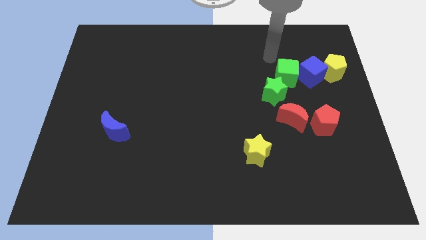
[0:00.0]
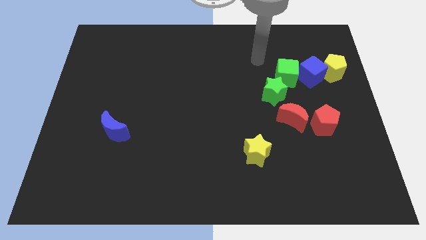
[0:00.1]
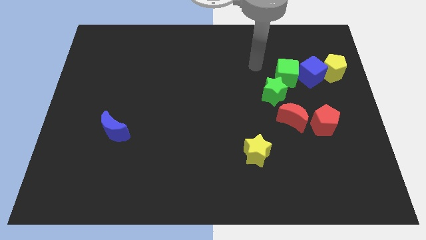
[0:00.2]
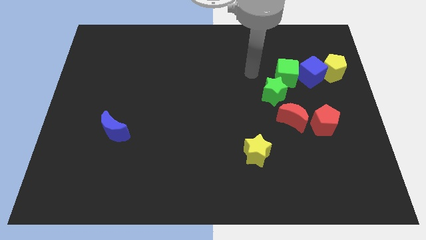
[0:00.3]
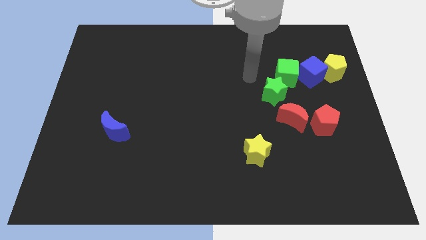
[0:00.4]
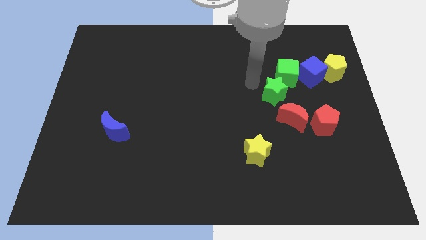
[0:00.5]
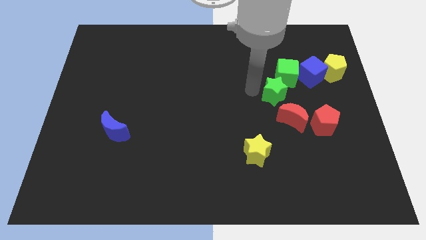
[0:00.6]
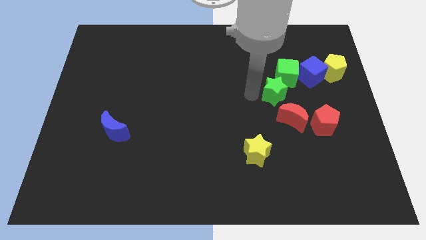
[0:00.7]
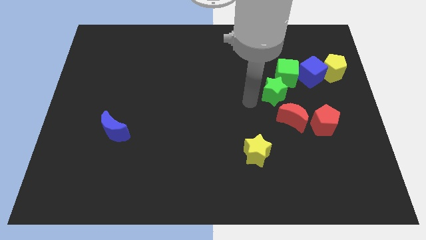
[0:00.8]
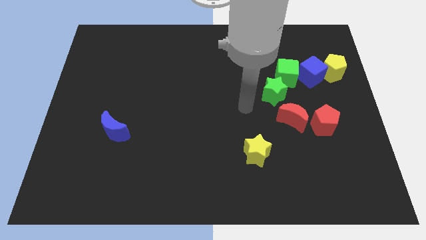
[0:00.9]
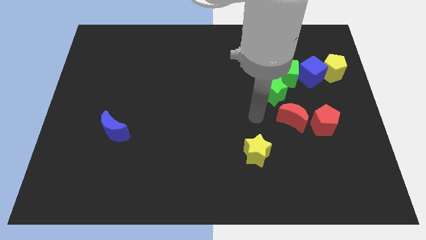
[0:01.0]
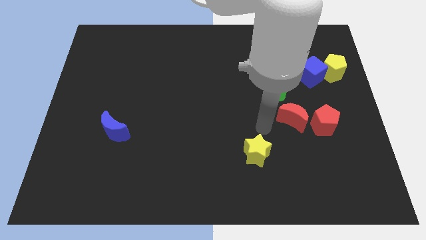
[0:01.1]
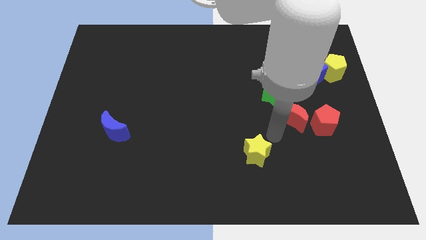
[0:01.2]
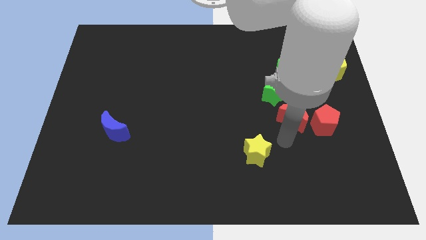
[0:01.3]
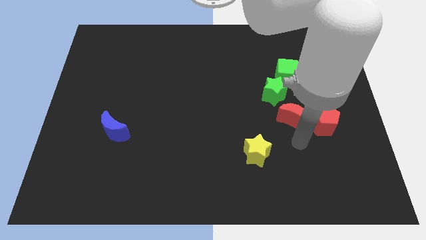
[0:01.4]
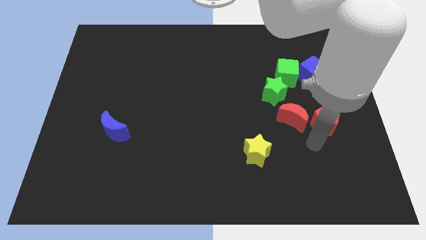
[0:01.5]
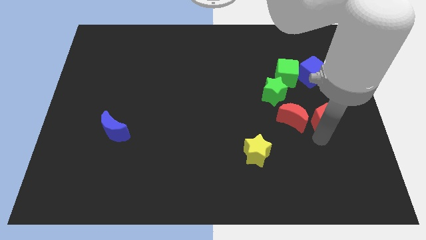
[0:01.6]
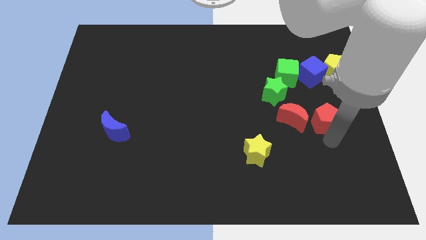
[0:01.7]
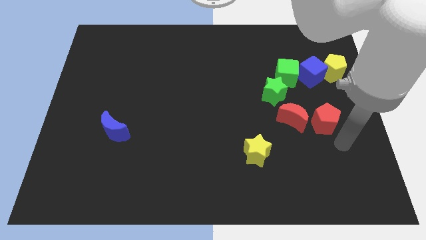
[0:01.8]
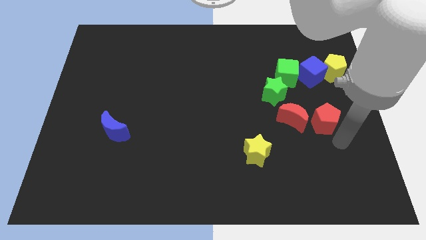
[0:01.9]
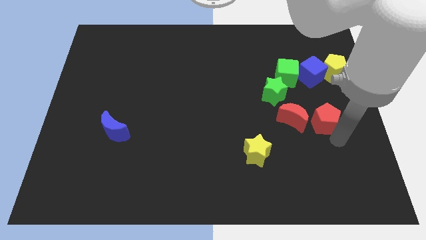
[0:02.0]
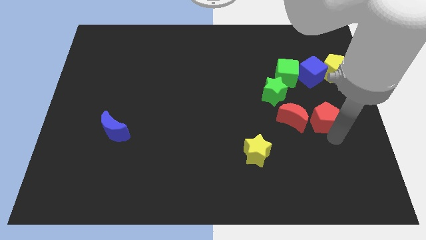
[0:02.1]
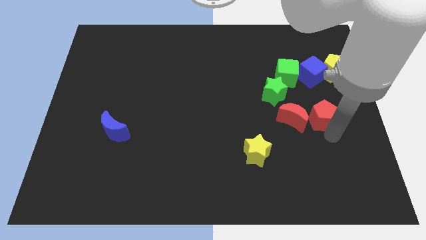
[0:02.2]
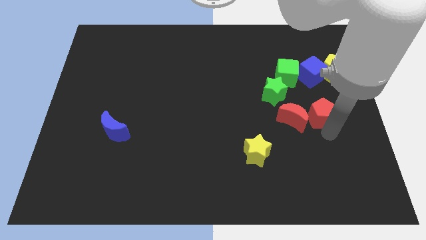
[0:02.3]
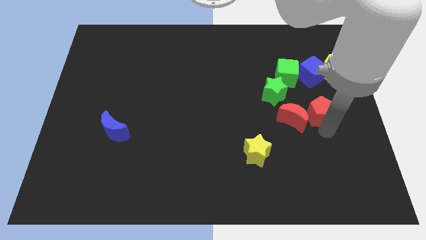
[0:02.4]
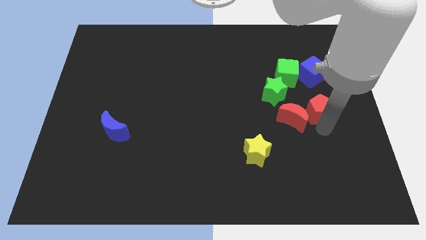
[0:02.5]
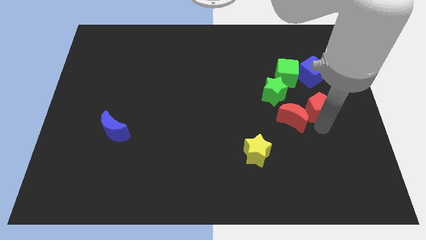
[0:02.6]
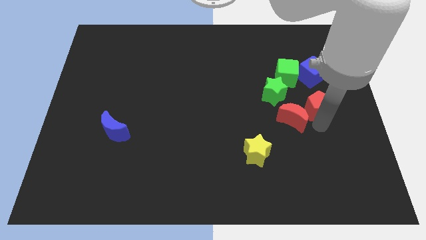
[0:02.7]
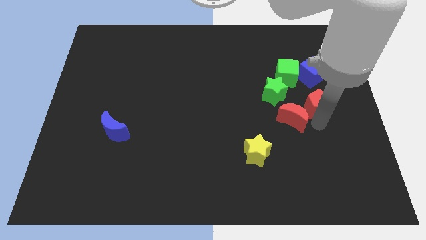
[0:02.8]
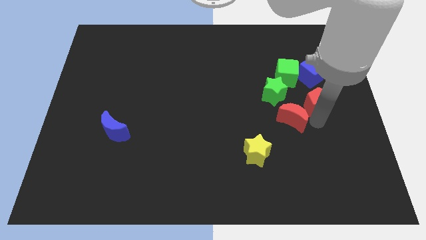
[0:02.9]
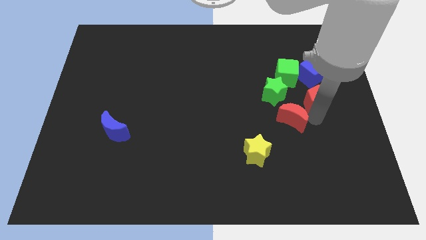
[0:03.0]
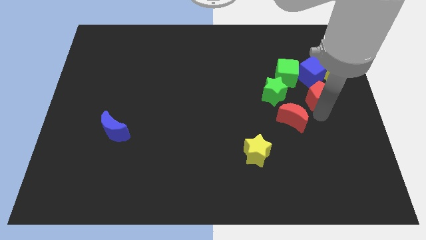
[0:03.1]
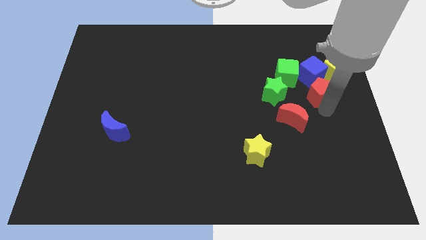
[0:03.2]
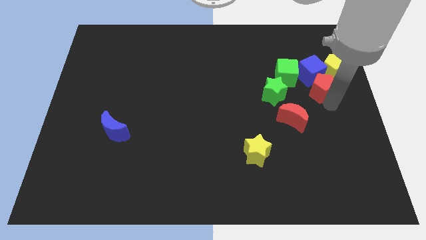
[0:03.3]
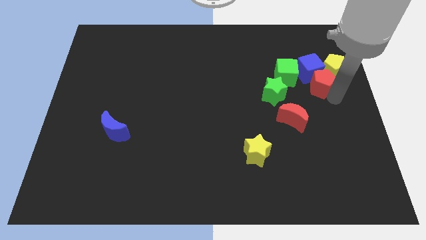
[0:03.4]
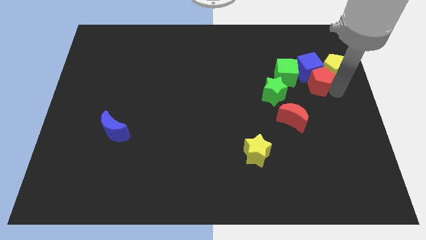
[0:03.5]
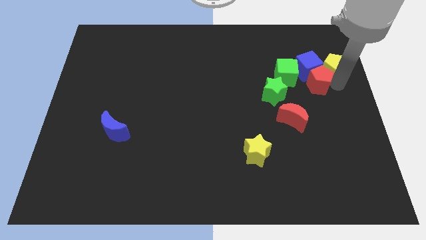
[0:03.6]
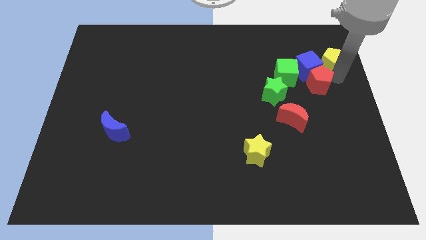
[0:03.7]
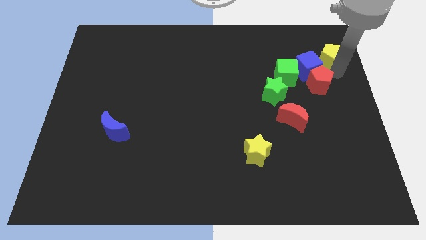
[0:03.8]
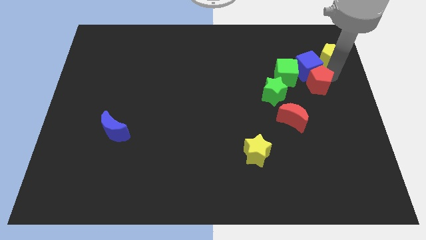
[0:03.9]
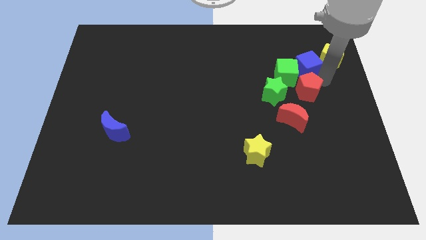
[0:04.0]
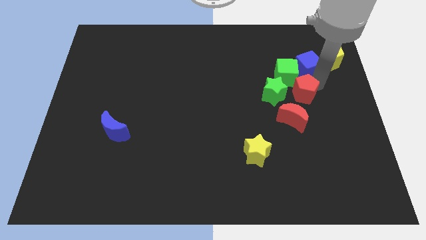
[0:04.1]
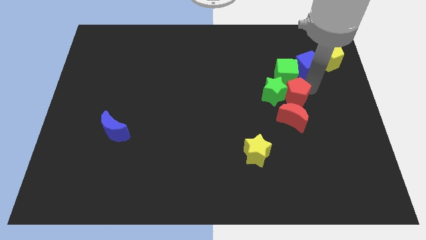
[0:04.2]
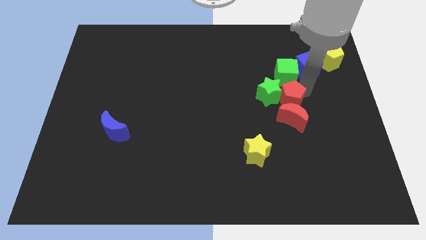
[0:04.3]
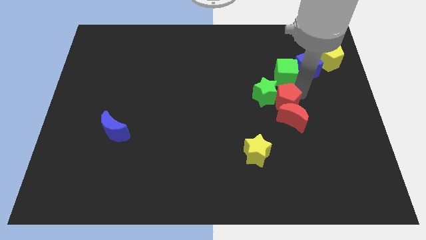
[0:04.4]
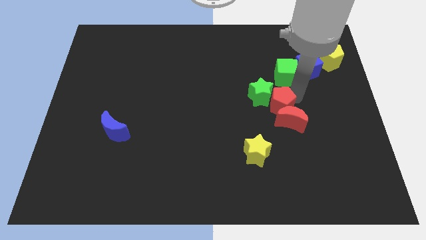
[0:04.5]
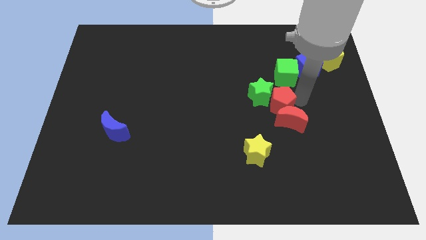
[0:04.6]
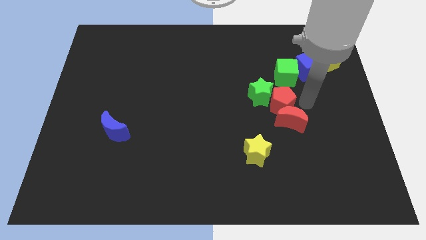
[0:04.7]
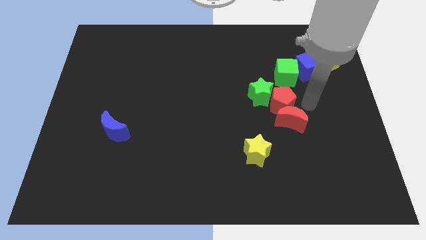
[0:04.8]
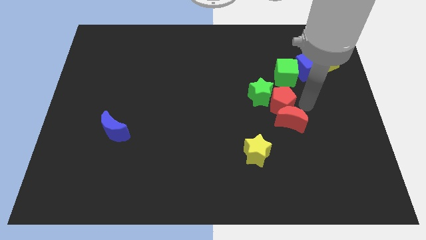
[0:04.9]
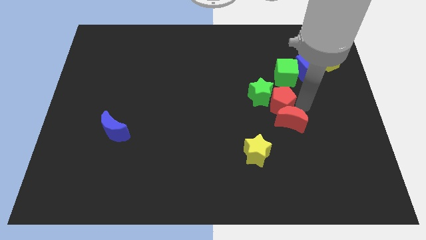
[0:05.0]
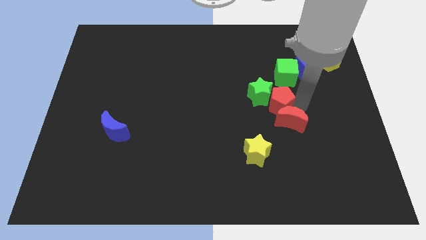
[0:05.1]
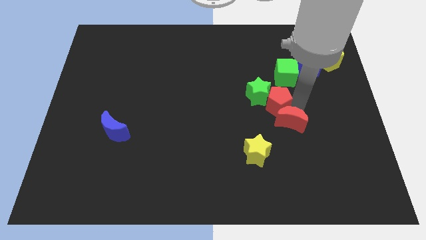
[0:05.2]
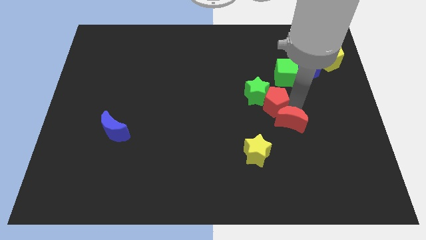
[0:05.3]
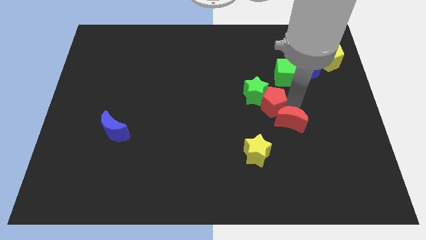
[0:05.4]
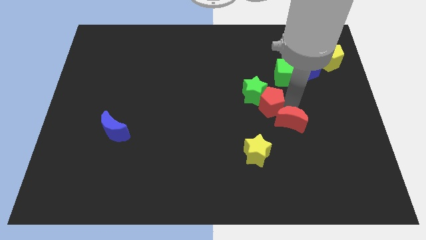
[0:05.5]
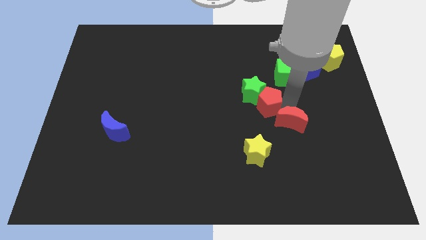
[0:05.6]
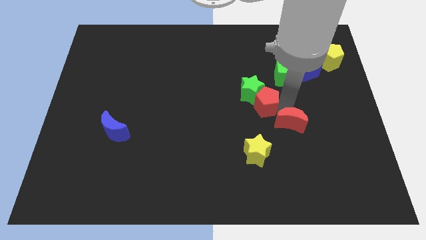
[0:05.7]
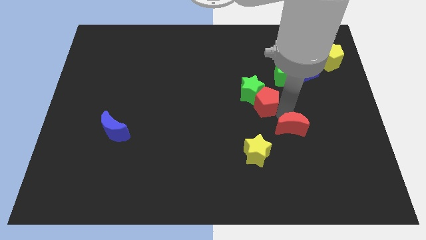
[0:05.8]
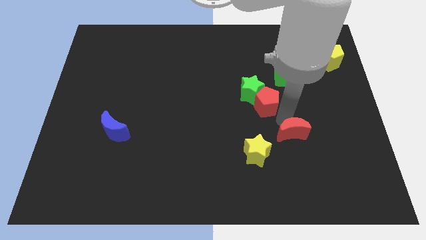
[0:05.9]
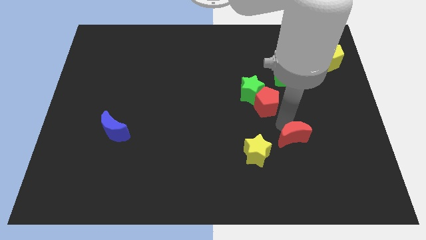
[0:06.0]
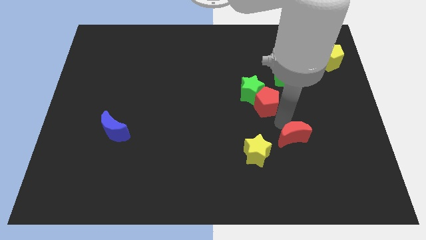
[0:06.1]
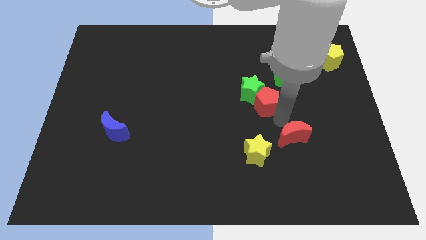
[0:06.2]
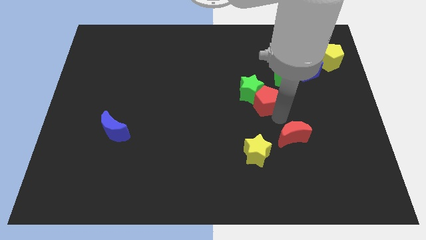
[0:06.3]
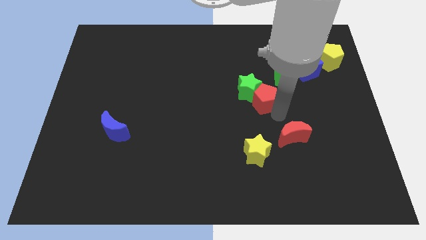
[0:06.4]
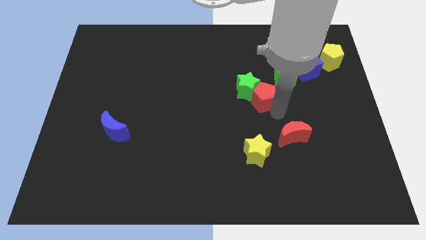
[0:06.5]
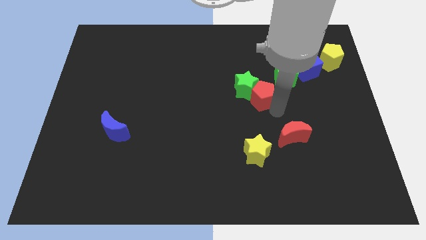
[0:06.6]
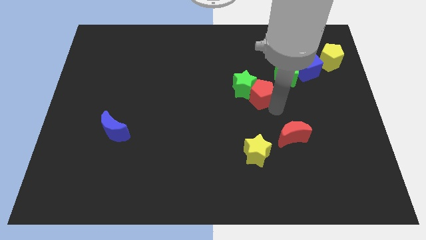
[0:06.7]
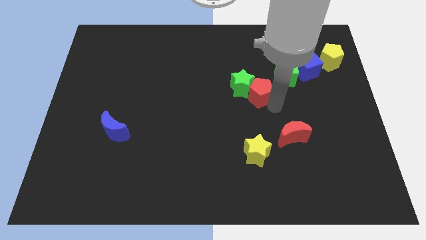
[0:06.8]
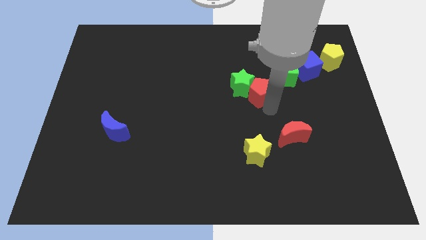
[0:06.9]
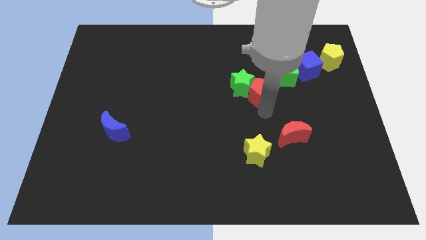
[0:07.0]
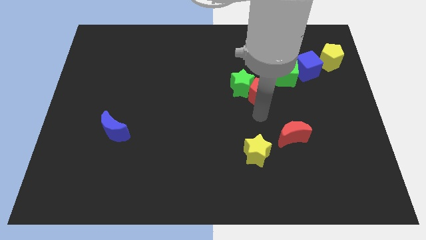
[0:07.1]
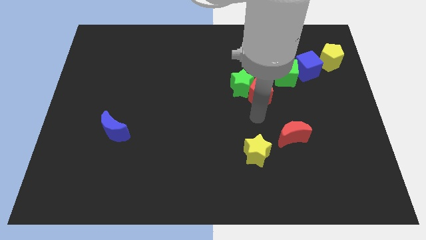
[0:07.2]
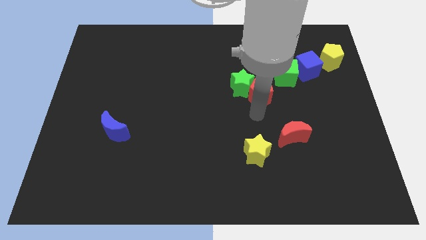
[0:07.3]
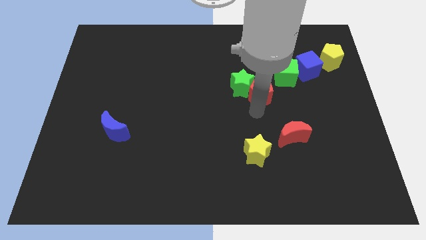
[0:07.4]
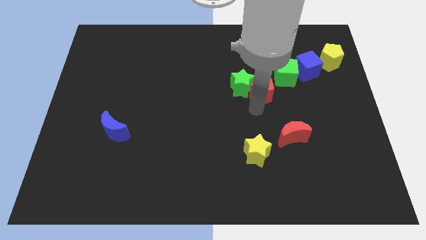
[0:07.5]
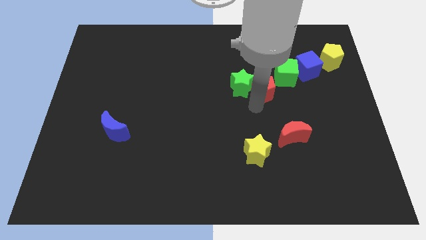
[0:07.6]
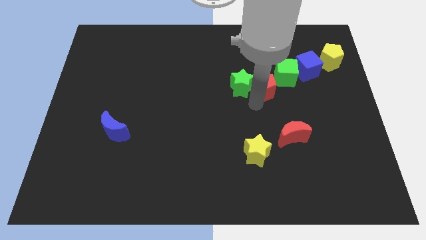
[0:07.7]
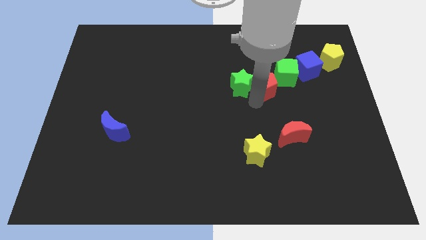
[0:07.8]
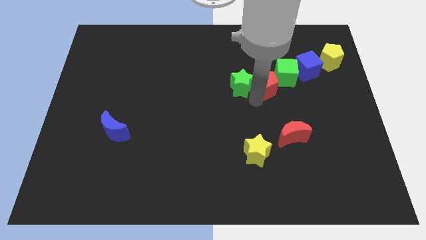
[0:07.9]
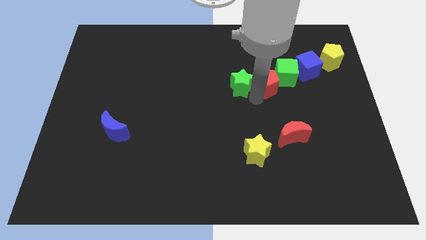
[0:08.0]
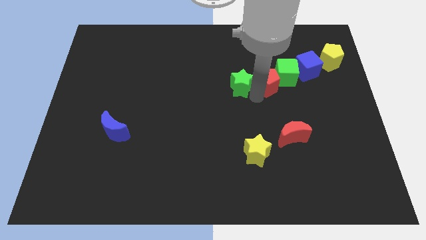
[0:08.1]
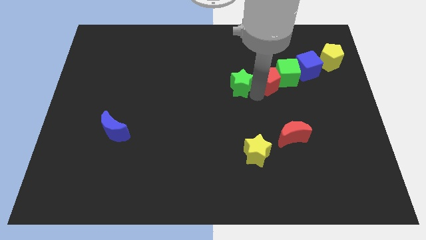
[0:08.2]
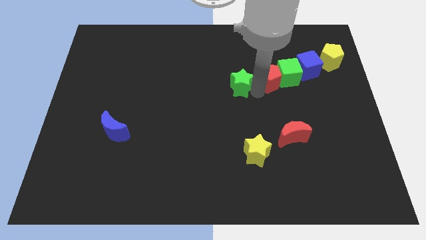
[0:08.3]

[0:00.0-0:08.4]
push the red pentagon to the top left of the green cube
